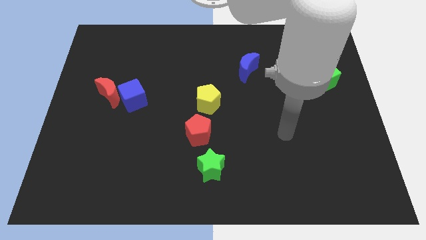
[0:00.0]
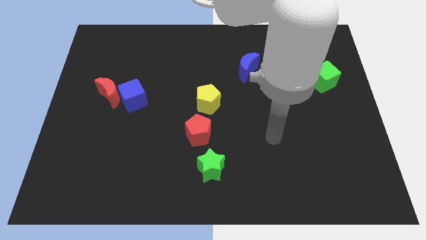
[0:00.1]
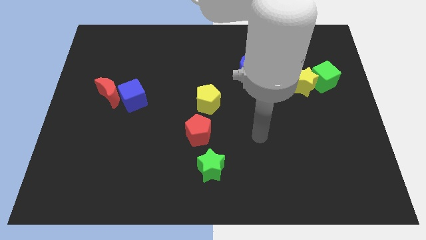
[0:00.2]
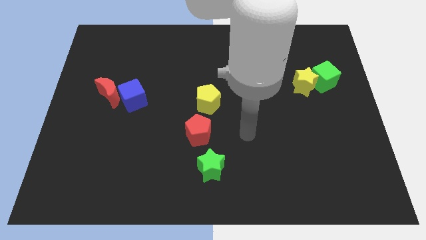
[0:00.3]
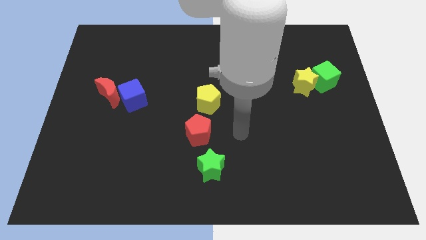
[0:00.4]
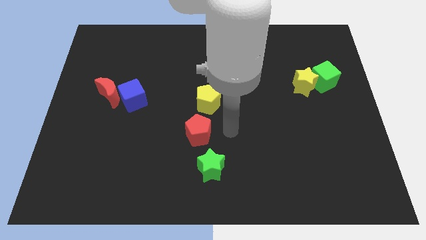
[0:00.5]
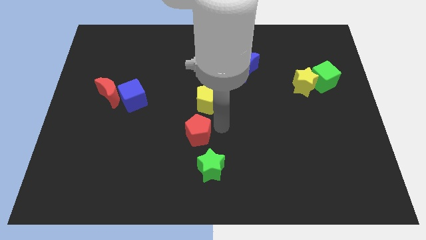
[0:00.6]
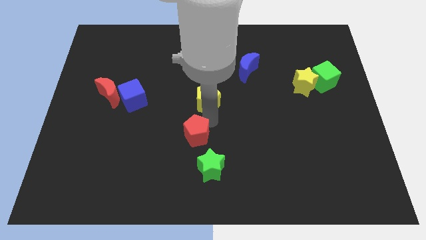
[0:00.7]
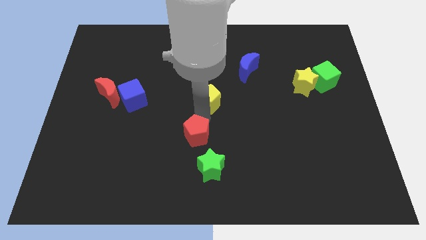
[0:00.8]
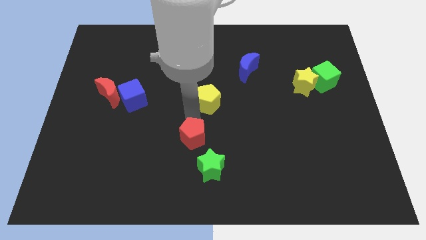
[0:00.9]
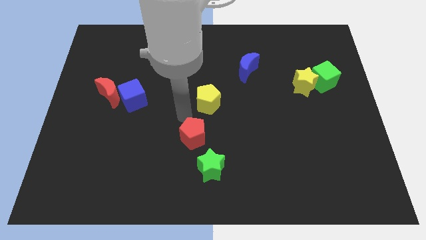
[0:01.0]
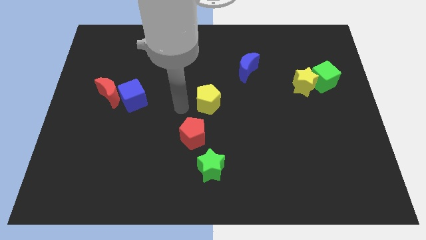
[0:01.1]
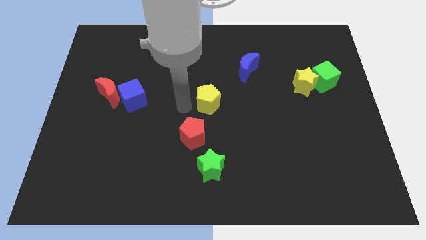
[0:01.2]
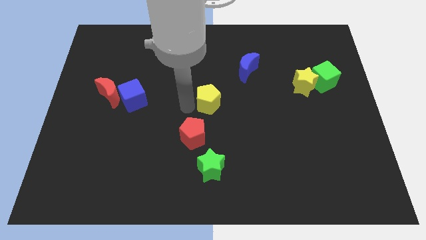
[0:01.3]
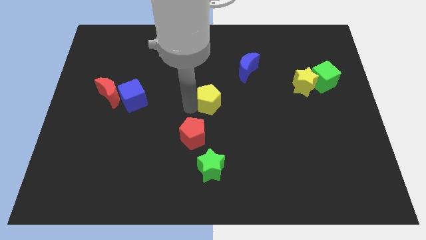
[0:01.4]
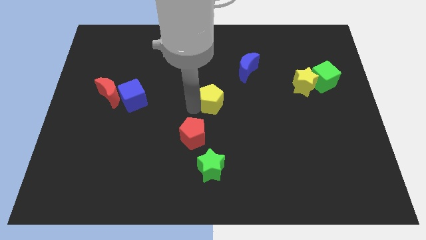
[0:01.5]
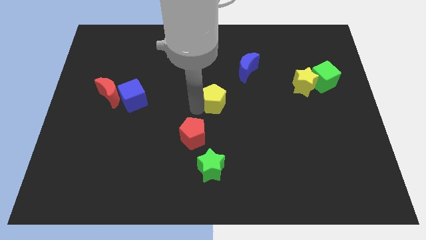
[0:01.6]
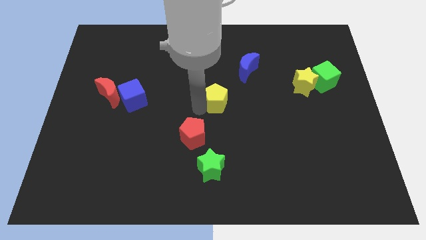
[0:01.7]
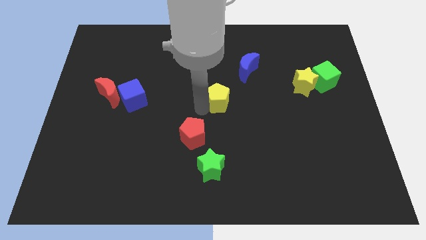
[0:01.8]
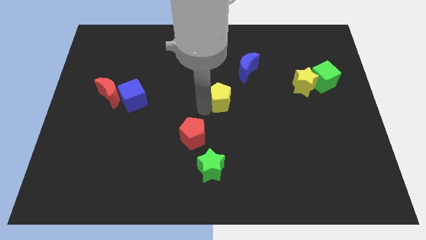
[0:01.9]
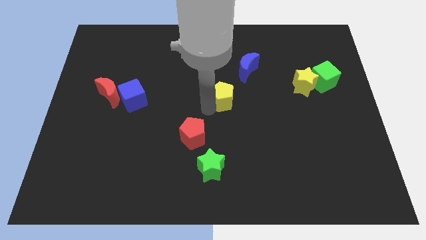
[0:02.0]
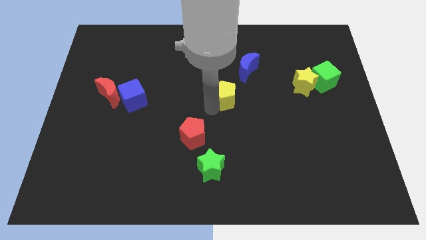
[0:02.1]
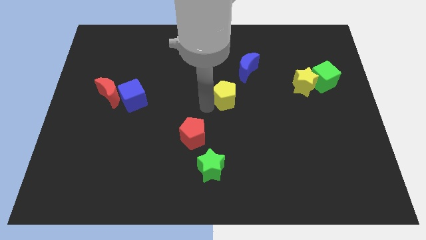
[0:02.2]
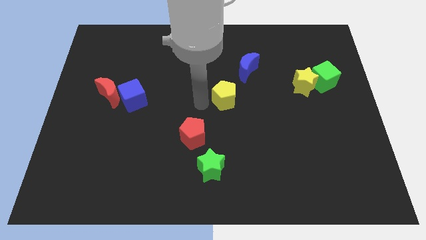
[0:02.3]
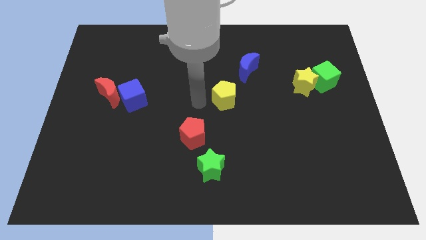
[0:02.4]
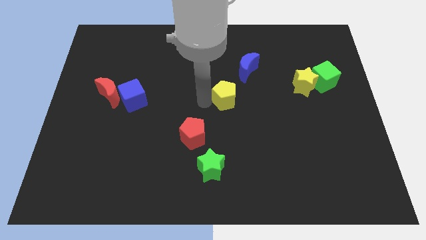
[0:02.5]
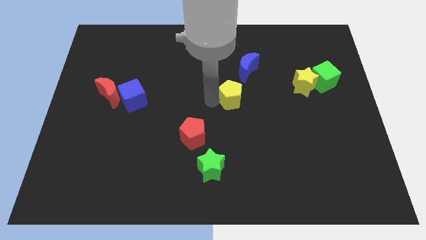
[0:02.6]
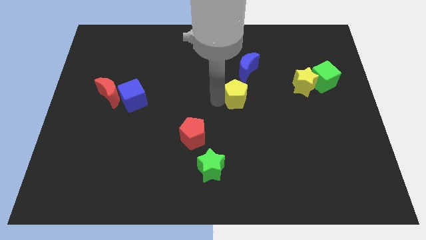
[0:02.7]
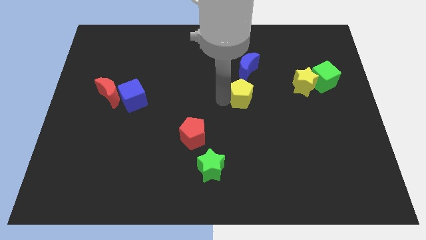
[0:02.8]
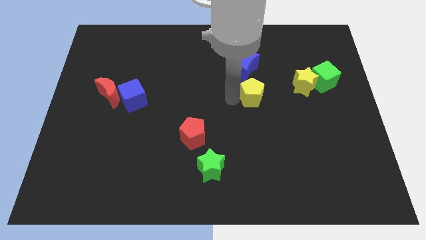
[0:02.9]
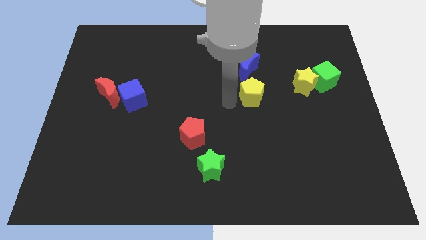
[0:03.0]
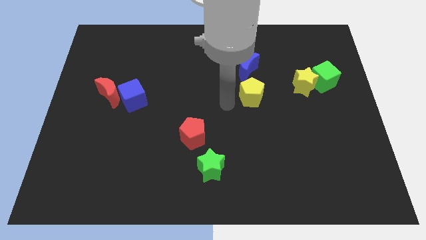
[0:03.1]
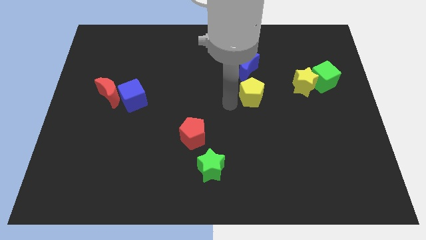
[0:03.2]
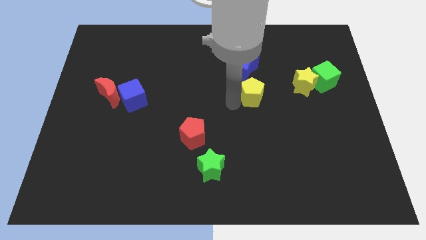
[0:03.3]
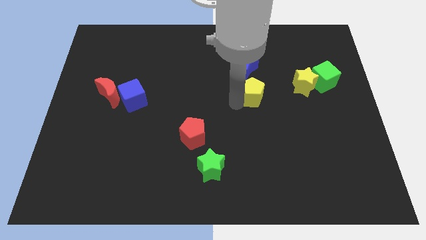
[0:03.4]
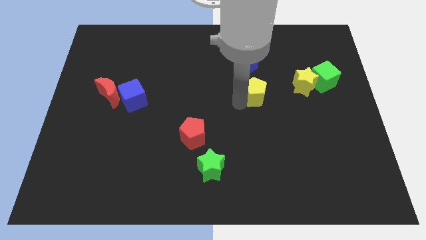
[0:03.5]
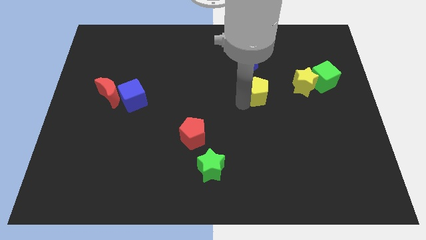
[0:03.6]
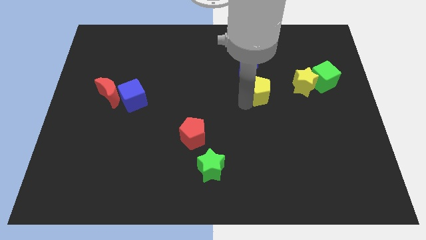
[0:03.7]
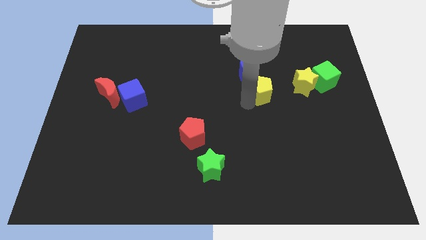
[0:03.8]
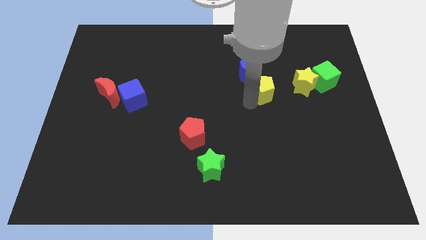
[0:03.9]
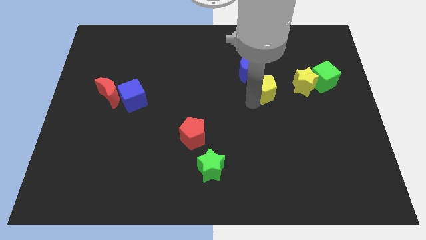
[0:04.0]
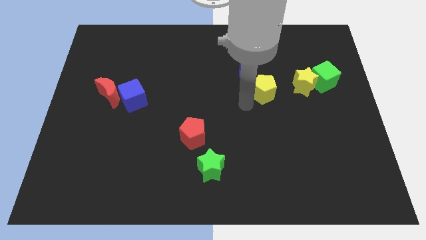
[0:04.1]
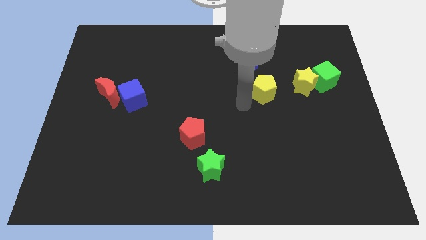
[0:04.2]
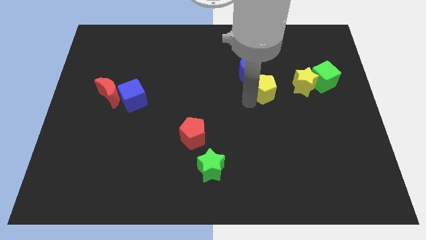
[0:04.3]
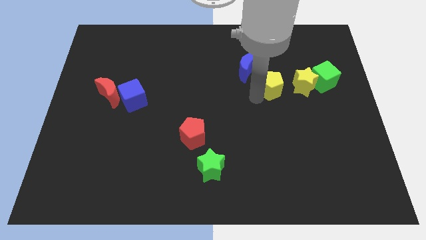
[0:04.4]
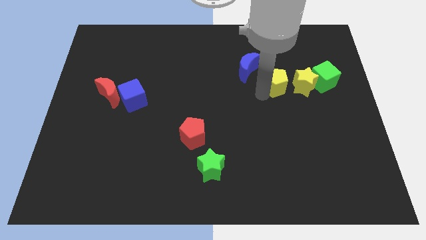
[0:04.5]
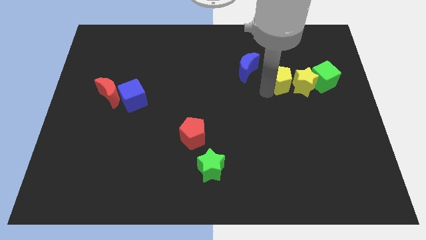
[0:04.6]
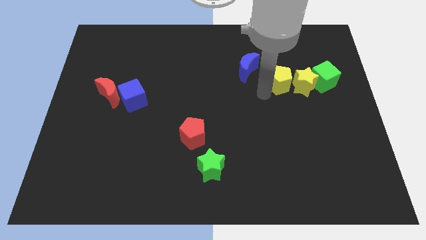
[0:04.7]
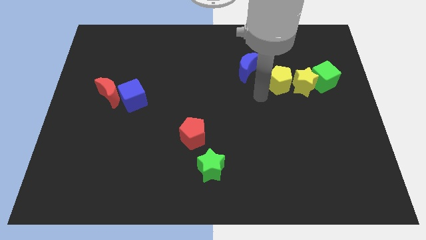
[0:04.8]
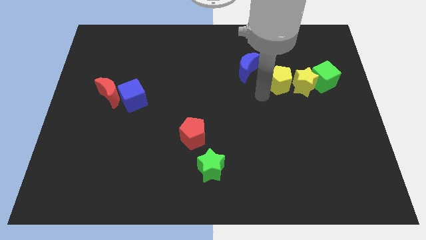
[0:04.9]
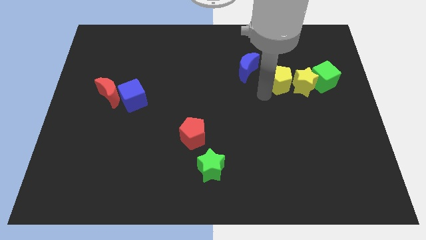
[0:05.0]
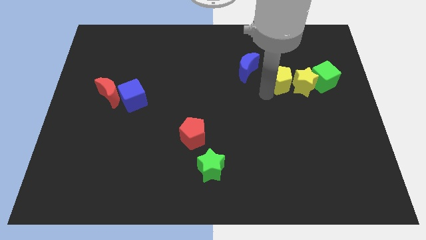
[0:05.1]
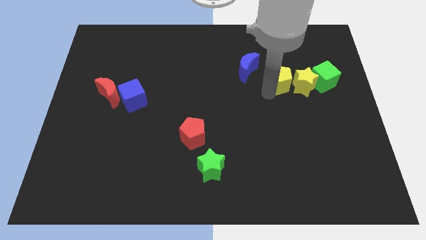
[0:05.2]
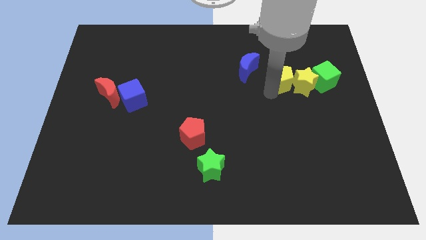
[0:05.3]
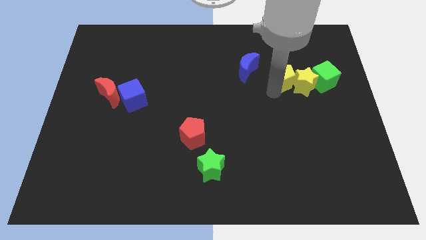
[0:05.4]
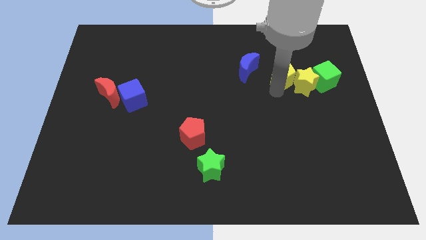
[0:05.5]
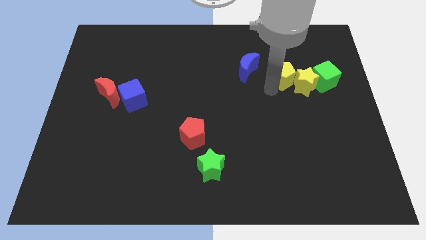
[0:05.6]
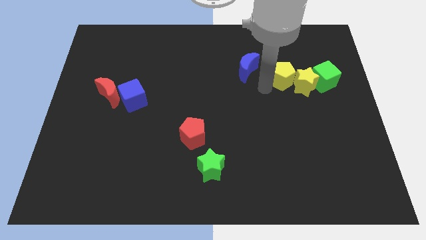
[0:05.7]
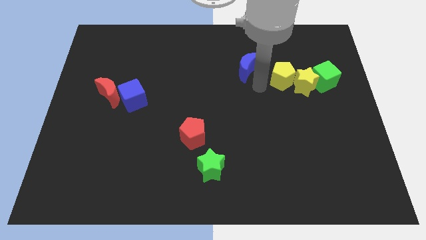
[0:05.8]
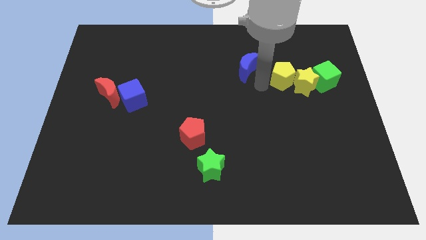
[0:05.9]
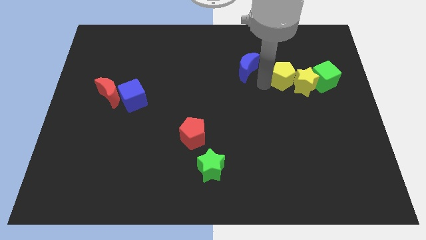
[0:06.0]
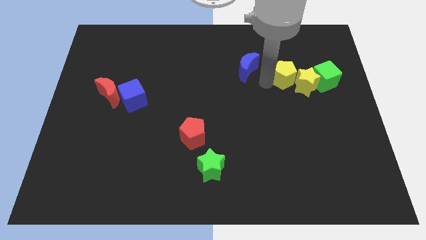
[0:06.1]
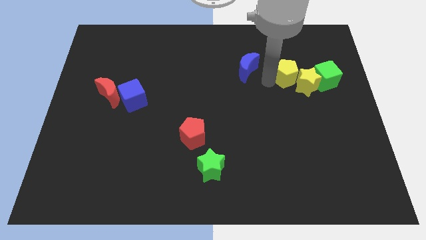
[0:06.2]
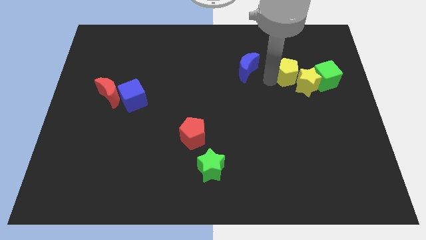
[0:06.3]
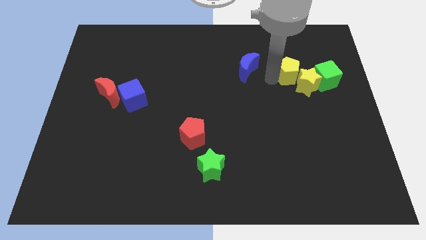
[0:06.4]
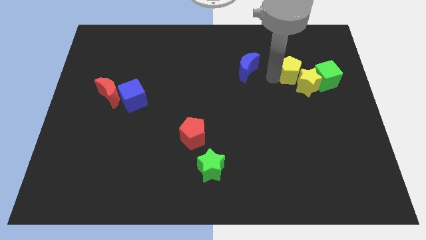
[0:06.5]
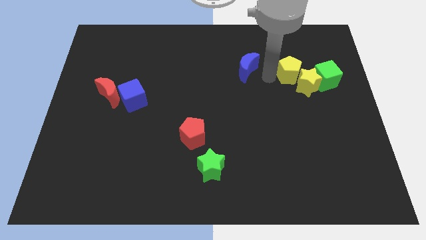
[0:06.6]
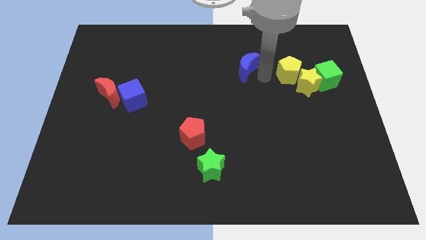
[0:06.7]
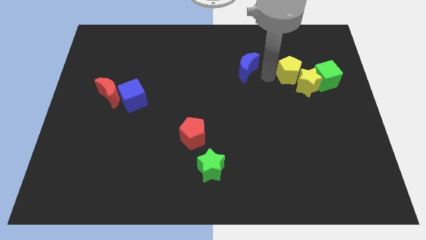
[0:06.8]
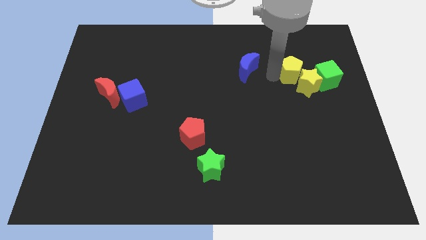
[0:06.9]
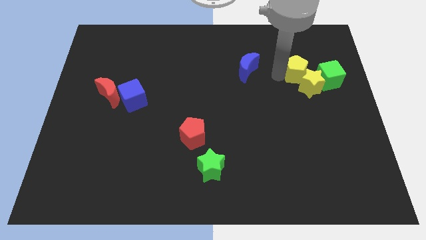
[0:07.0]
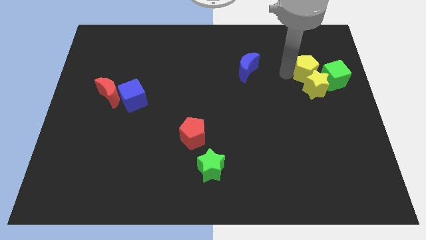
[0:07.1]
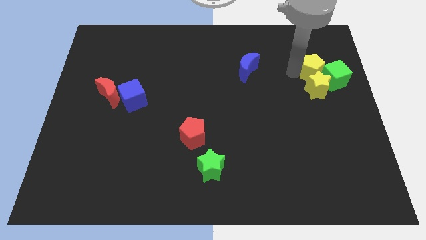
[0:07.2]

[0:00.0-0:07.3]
move the yellow pentagon towards the green cube
